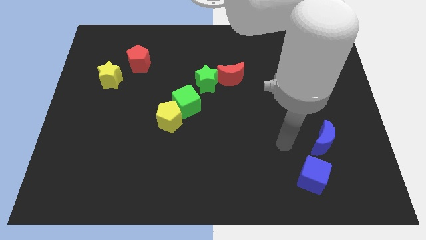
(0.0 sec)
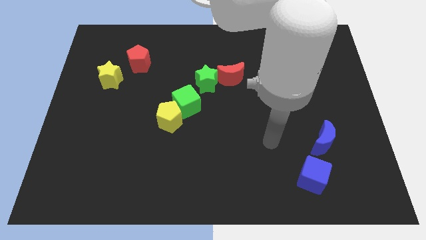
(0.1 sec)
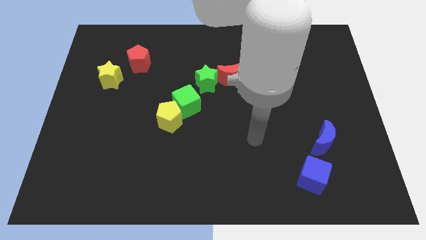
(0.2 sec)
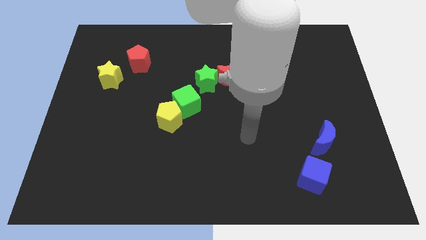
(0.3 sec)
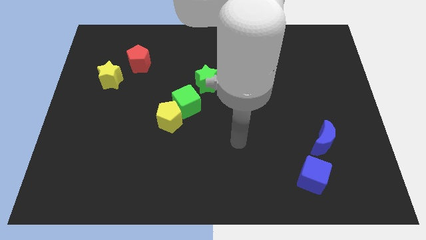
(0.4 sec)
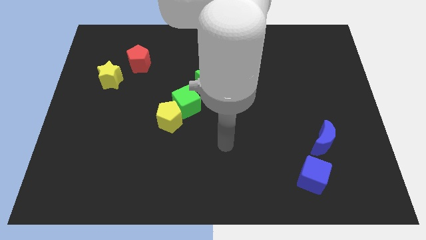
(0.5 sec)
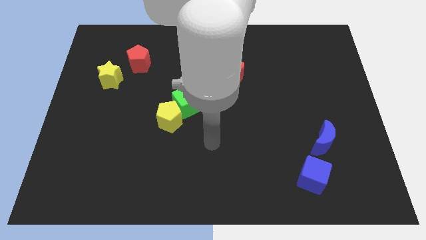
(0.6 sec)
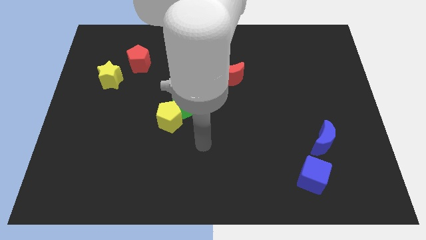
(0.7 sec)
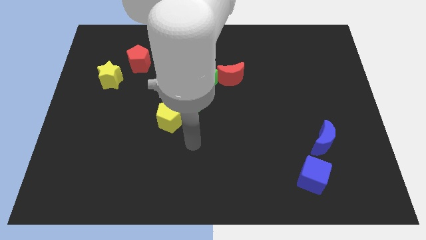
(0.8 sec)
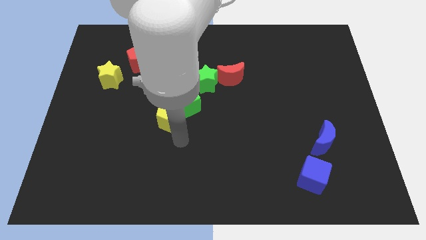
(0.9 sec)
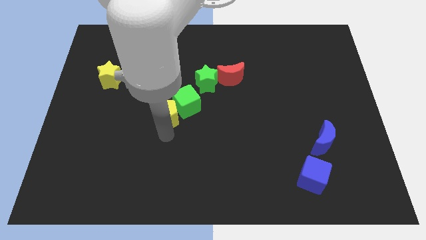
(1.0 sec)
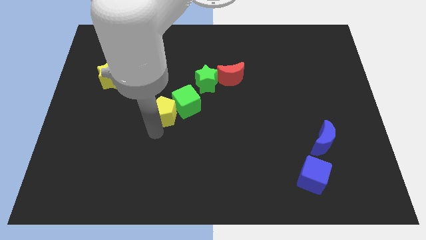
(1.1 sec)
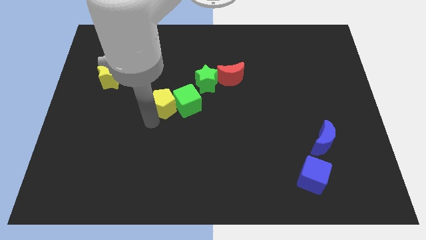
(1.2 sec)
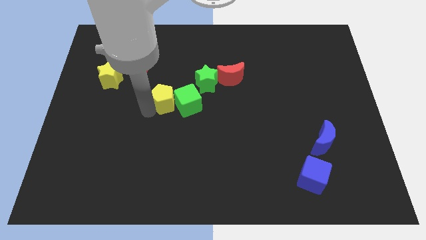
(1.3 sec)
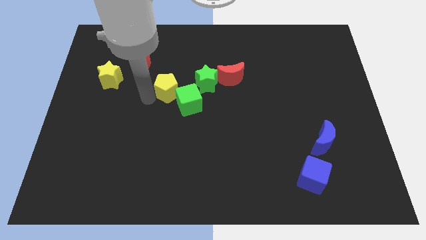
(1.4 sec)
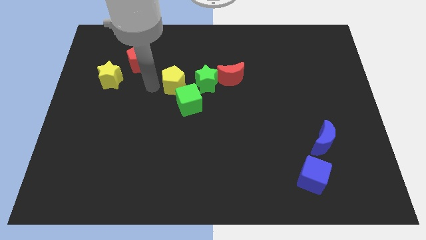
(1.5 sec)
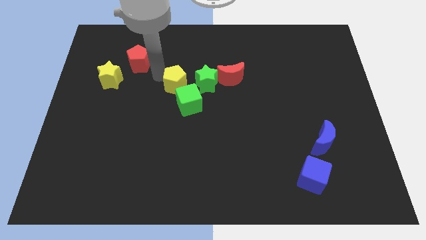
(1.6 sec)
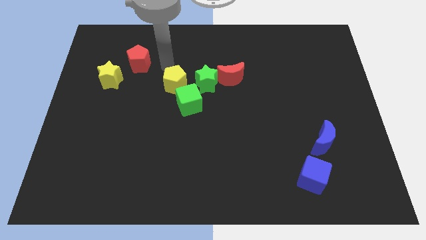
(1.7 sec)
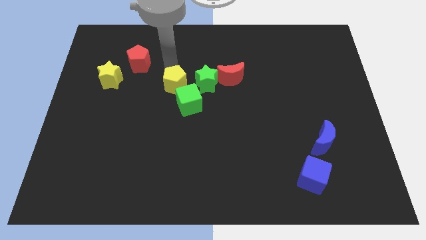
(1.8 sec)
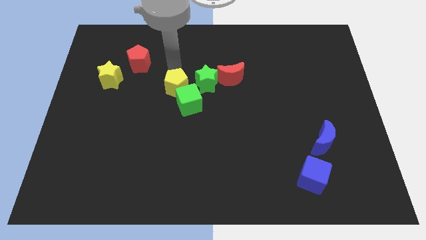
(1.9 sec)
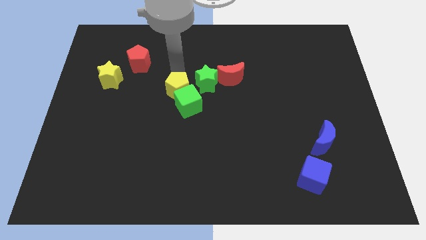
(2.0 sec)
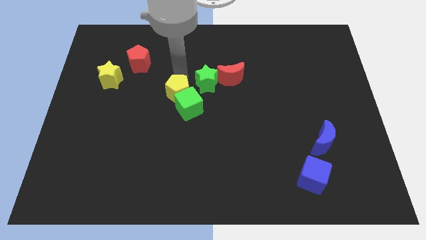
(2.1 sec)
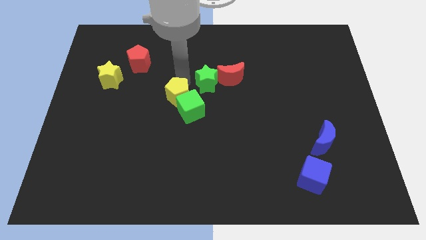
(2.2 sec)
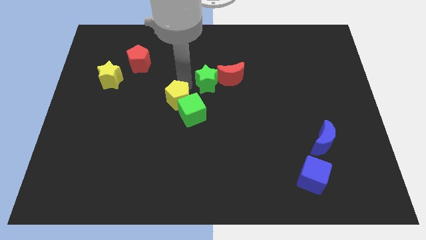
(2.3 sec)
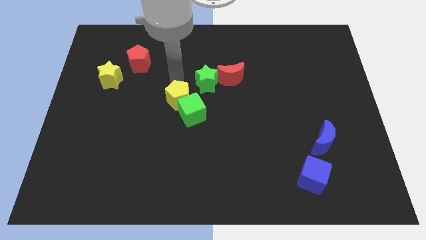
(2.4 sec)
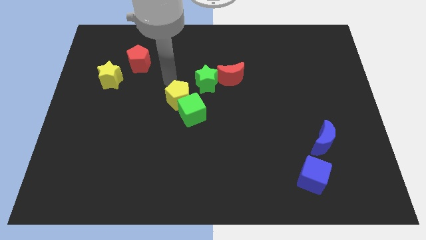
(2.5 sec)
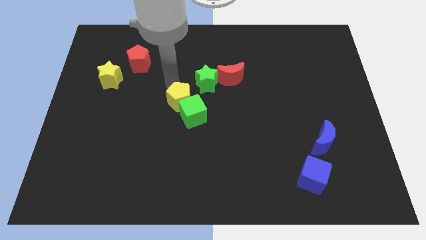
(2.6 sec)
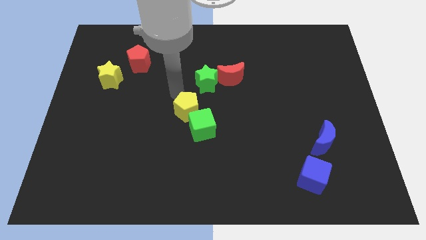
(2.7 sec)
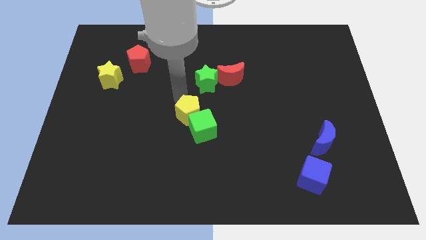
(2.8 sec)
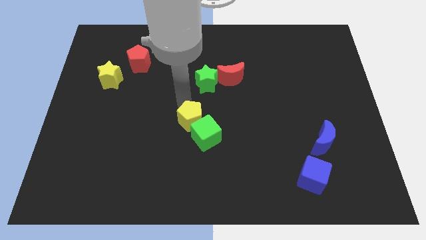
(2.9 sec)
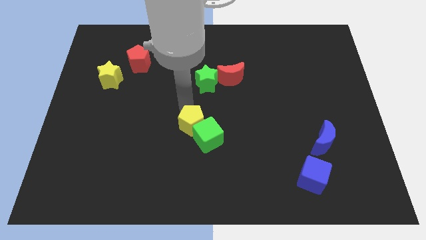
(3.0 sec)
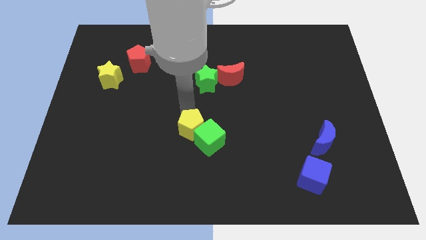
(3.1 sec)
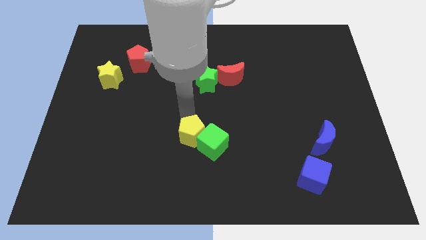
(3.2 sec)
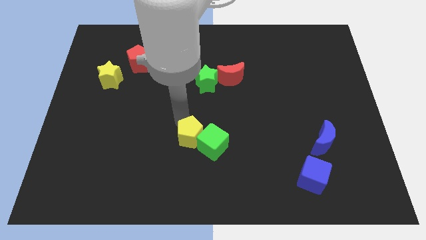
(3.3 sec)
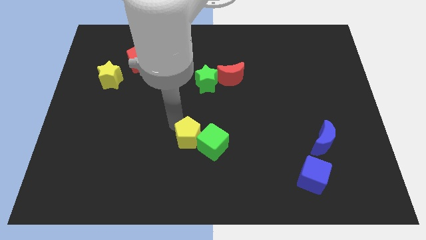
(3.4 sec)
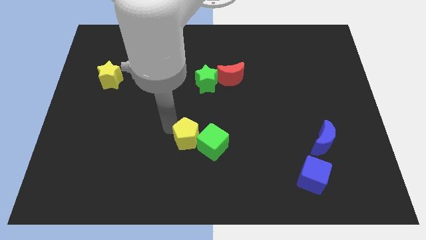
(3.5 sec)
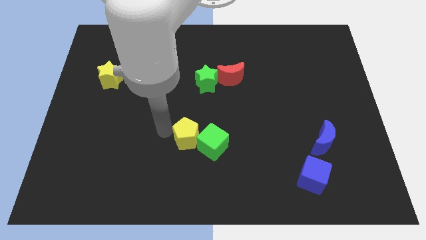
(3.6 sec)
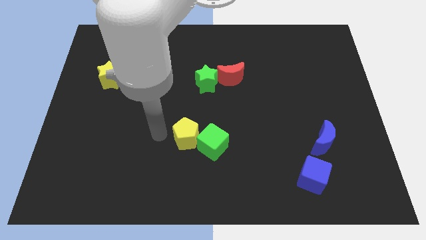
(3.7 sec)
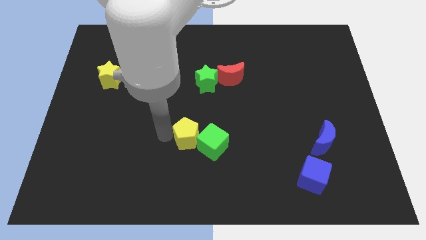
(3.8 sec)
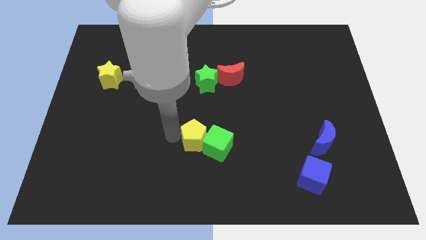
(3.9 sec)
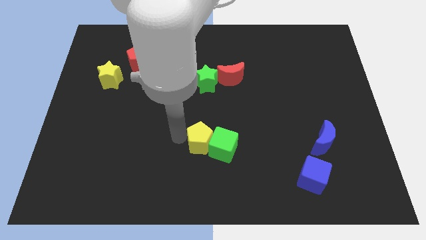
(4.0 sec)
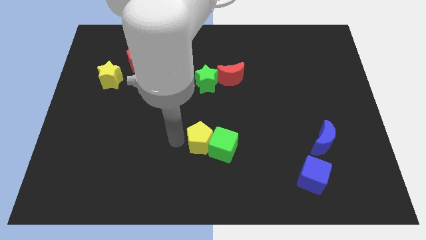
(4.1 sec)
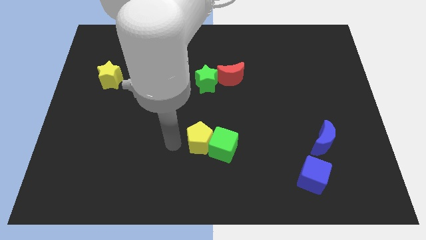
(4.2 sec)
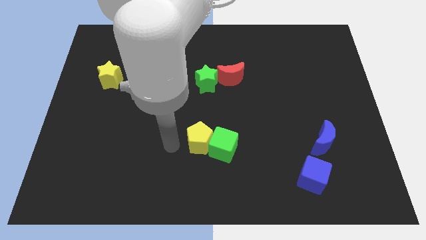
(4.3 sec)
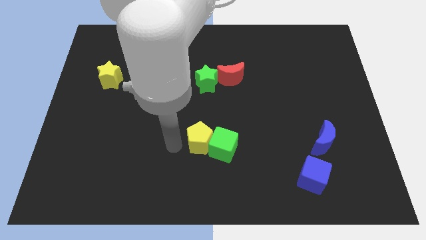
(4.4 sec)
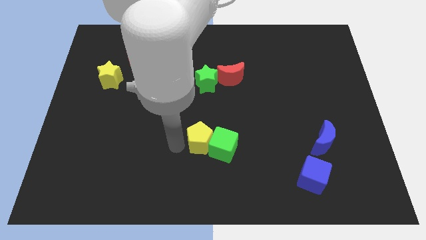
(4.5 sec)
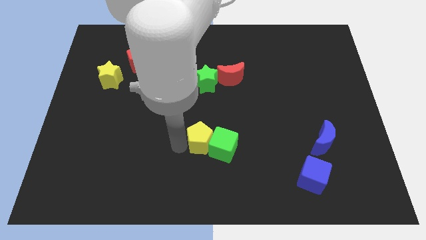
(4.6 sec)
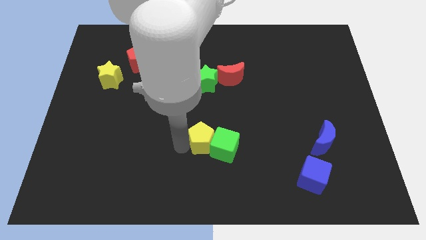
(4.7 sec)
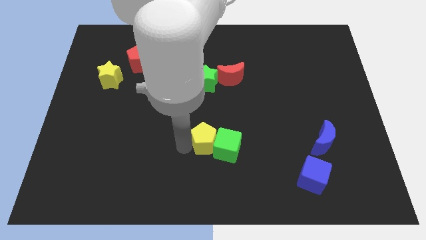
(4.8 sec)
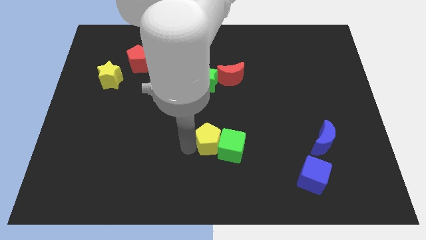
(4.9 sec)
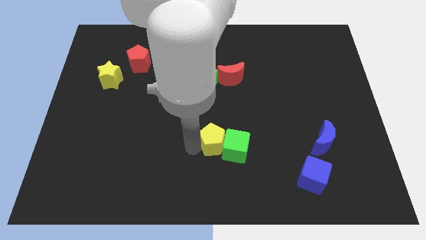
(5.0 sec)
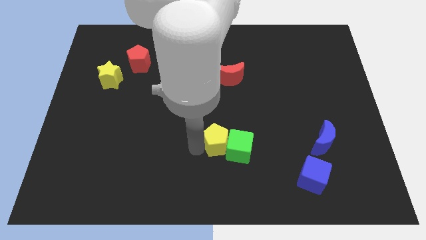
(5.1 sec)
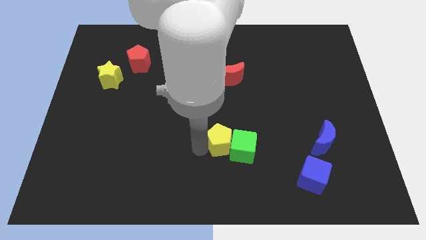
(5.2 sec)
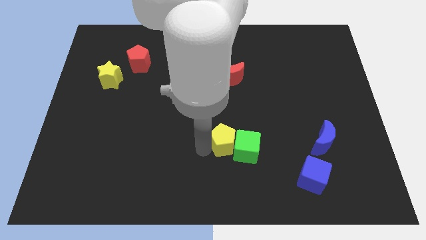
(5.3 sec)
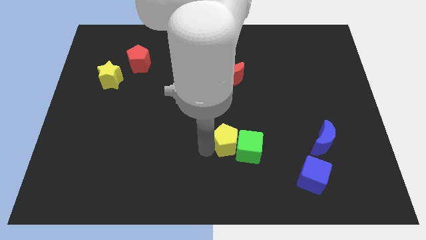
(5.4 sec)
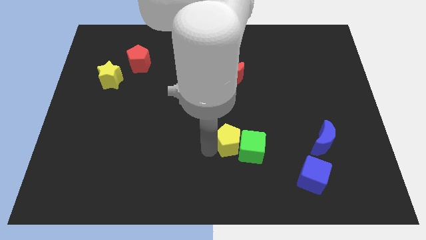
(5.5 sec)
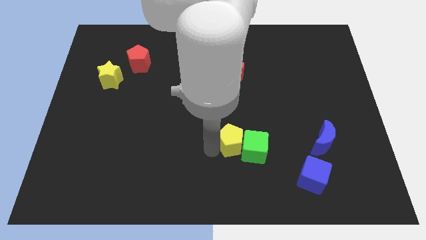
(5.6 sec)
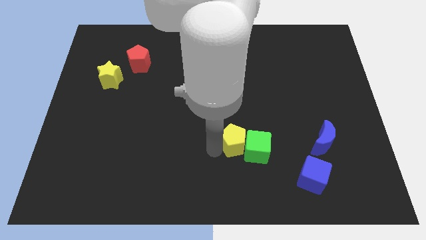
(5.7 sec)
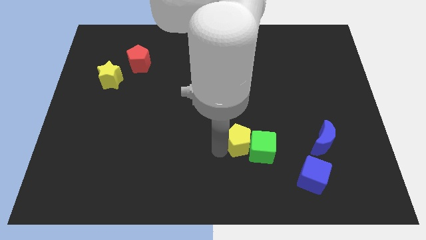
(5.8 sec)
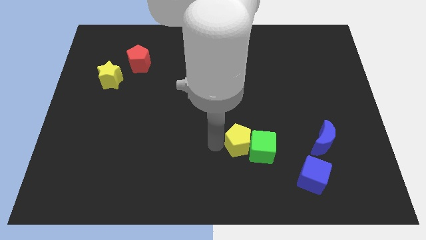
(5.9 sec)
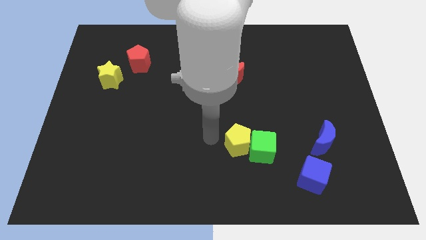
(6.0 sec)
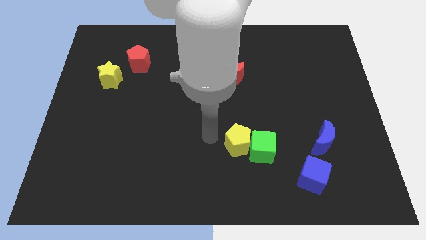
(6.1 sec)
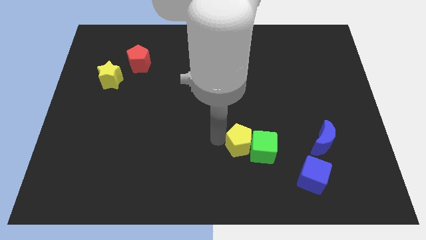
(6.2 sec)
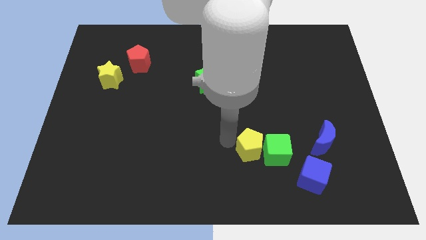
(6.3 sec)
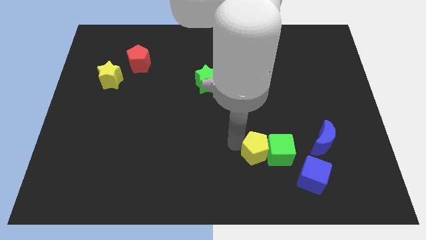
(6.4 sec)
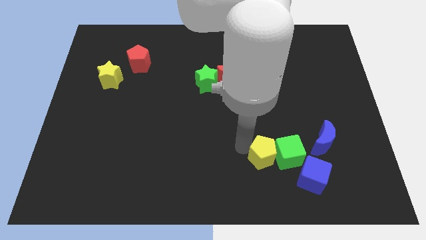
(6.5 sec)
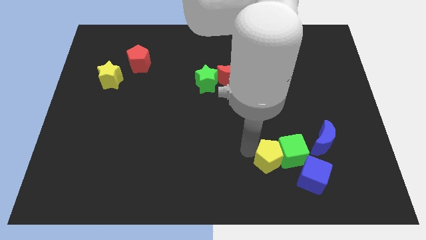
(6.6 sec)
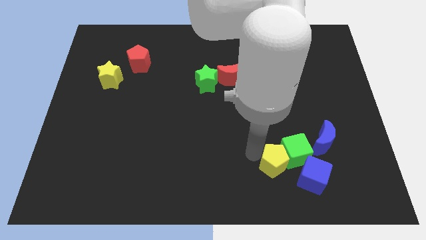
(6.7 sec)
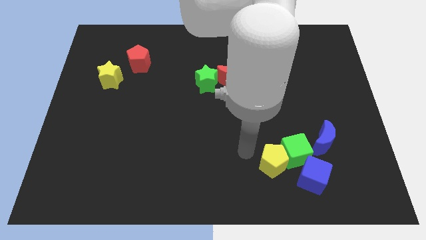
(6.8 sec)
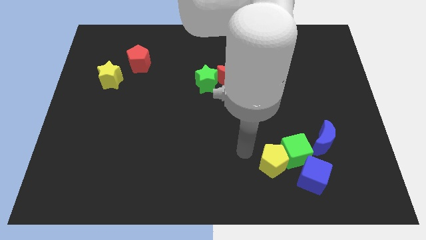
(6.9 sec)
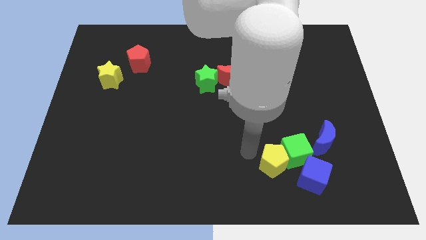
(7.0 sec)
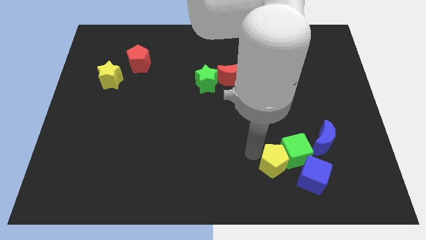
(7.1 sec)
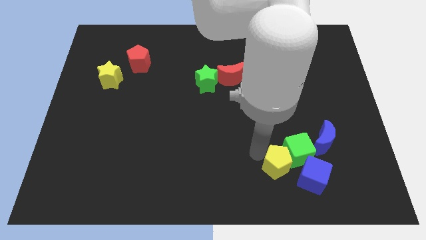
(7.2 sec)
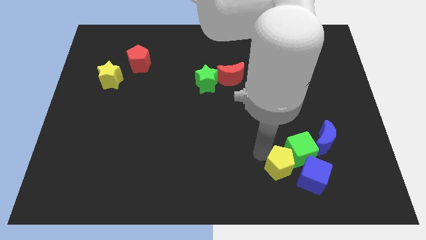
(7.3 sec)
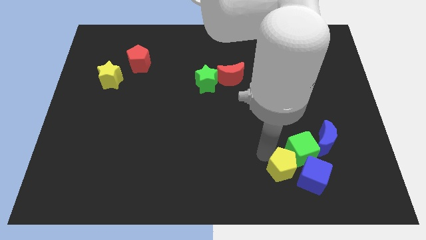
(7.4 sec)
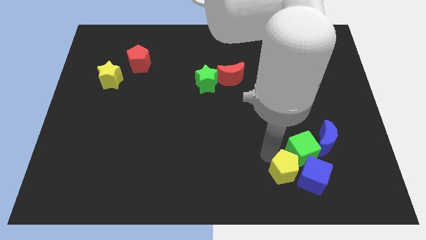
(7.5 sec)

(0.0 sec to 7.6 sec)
move the yellow pentagon towards the blue cube

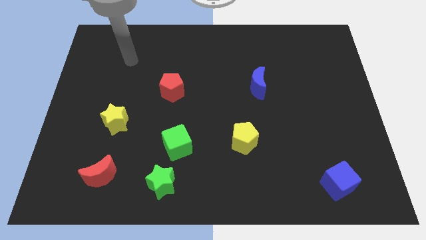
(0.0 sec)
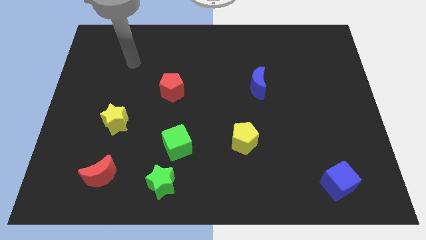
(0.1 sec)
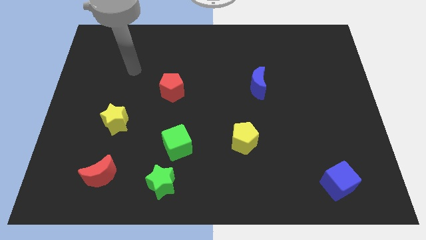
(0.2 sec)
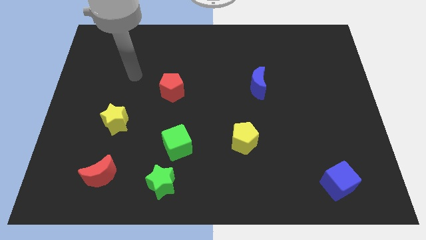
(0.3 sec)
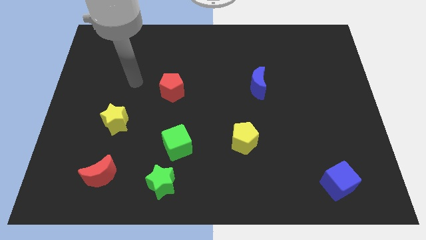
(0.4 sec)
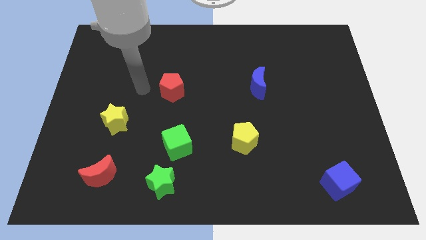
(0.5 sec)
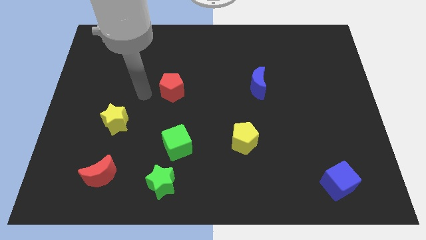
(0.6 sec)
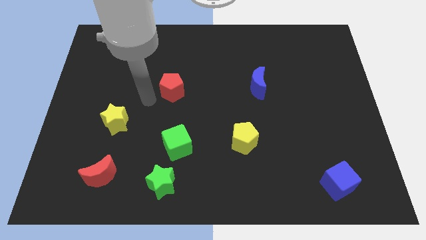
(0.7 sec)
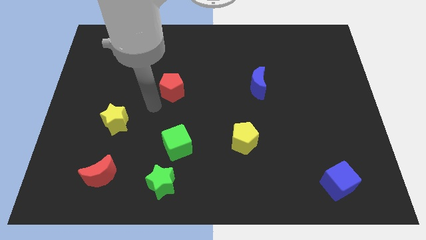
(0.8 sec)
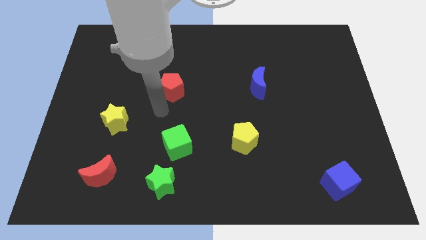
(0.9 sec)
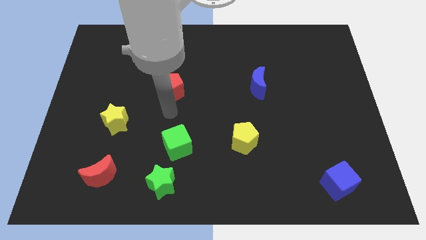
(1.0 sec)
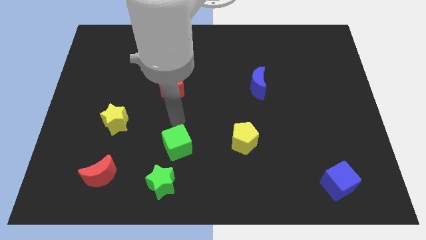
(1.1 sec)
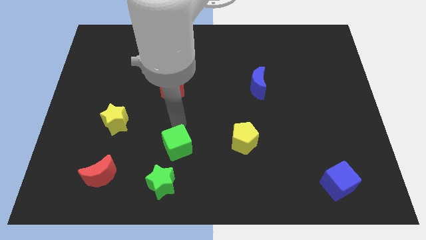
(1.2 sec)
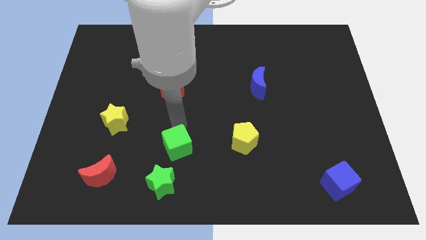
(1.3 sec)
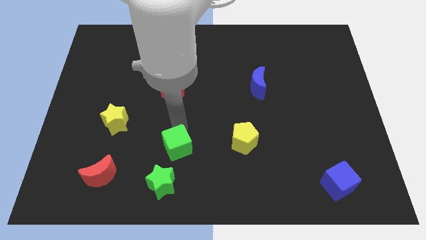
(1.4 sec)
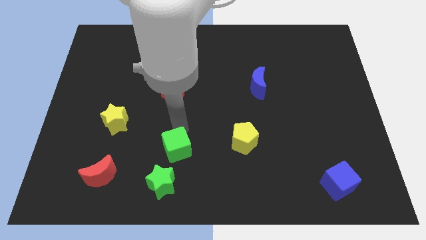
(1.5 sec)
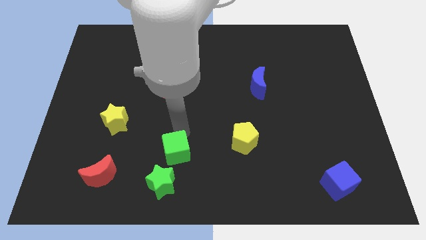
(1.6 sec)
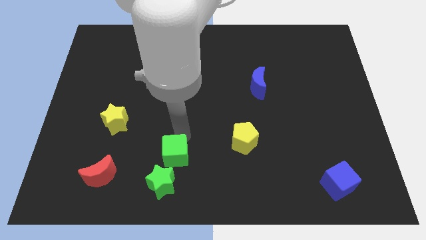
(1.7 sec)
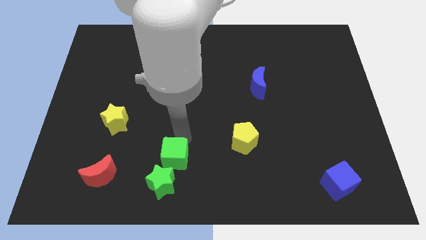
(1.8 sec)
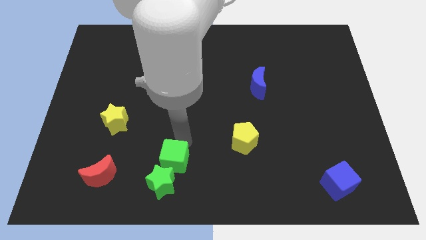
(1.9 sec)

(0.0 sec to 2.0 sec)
push the green cube next to the green star
